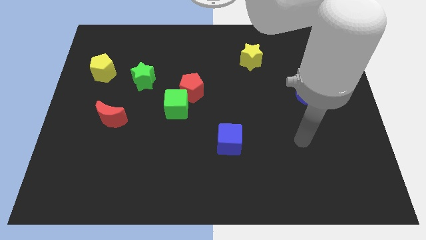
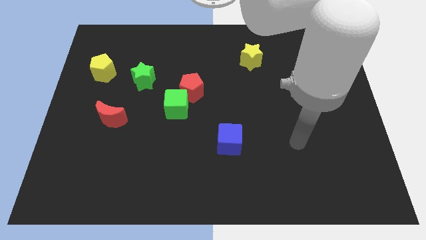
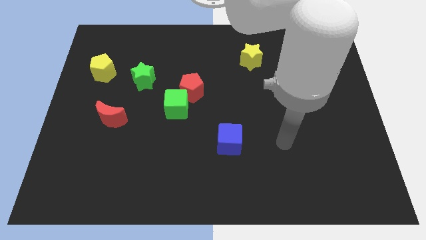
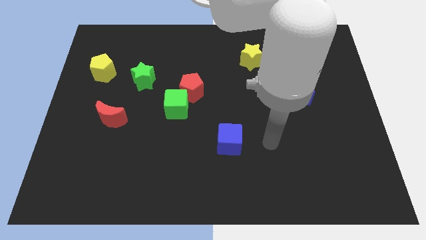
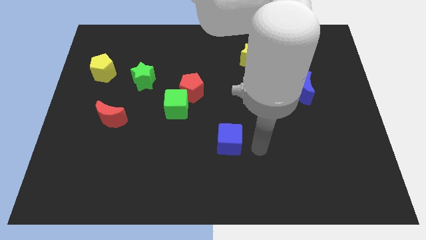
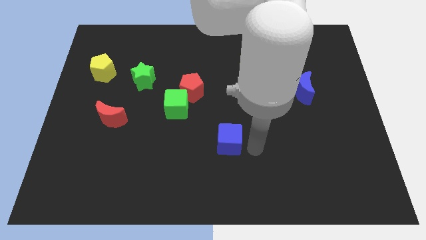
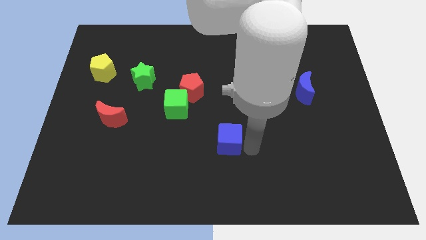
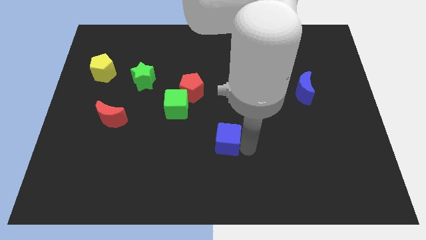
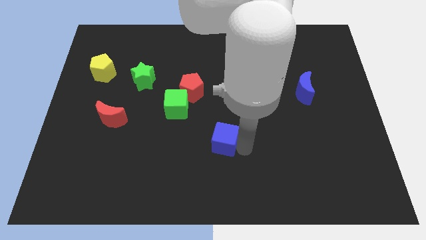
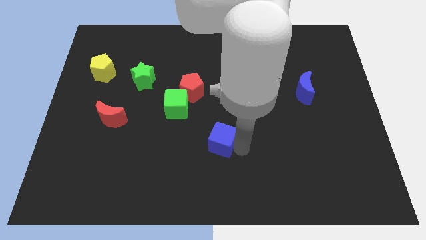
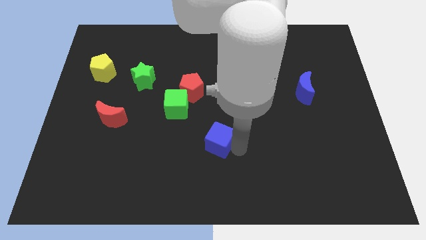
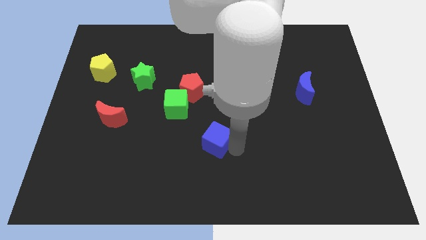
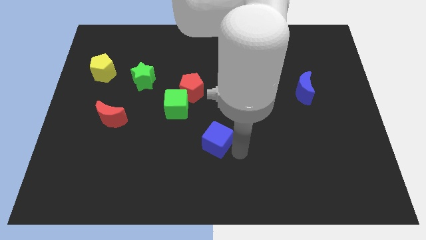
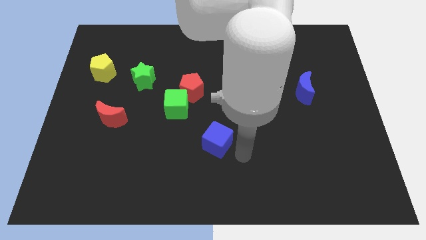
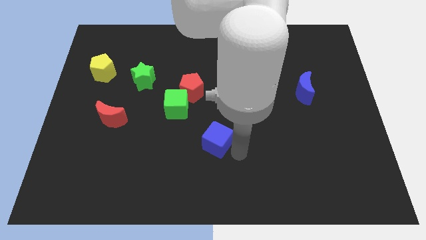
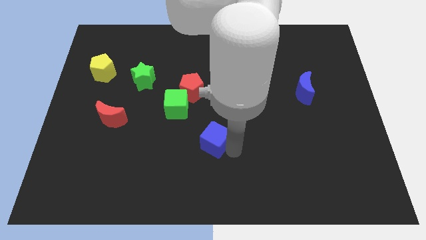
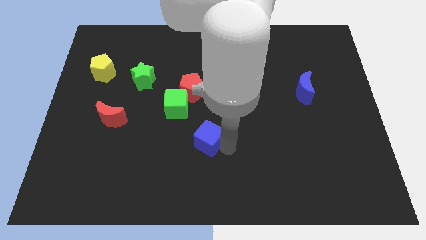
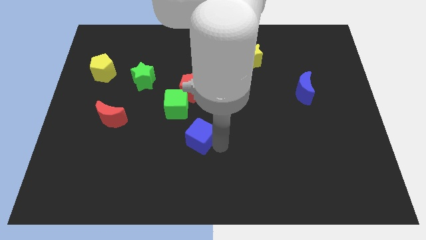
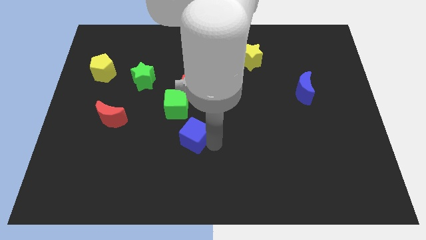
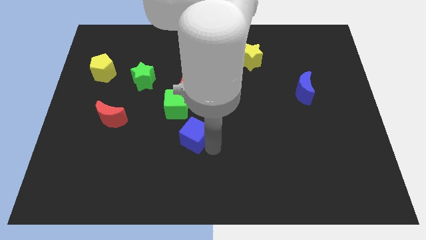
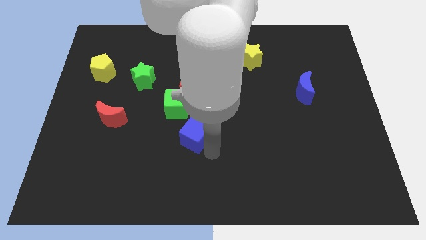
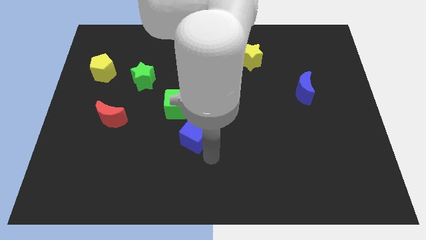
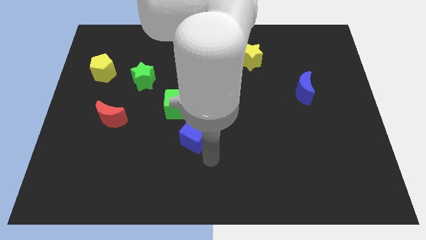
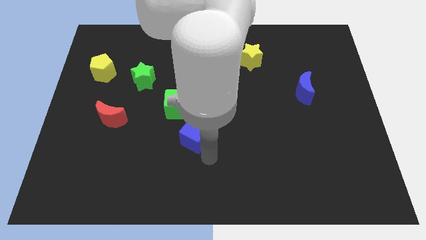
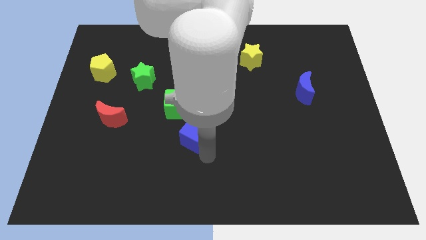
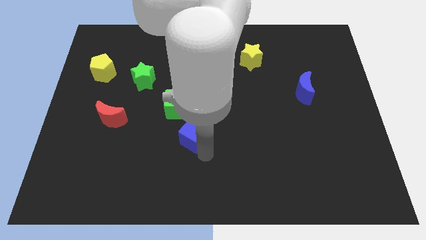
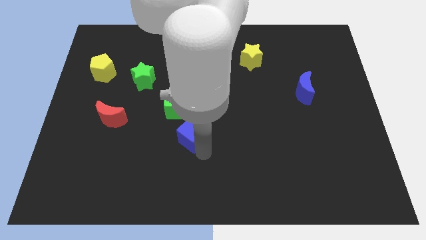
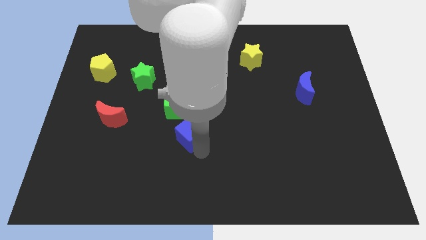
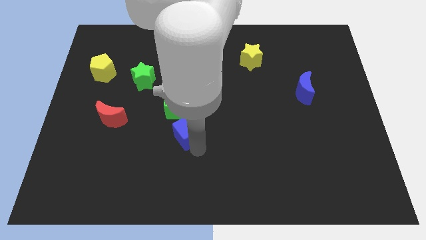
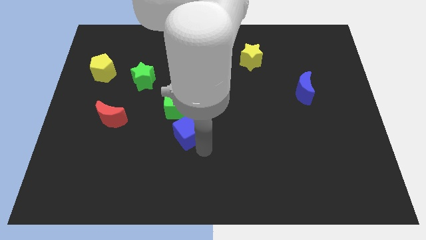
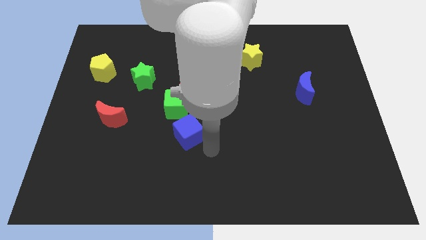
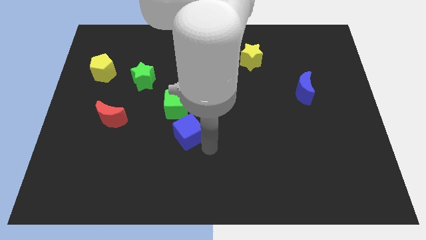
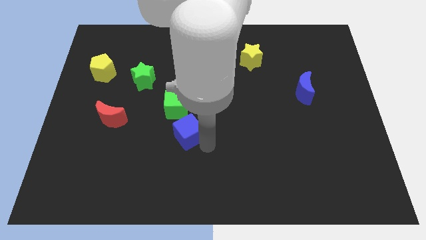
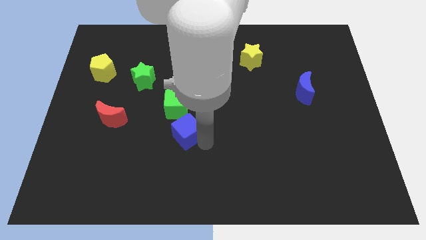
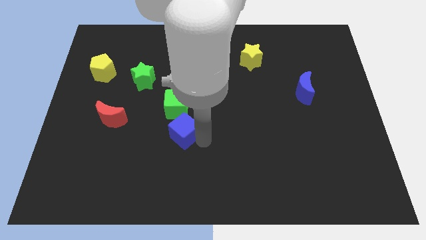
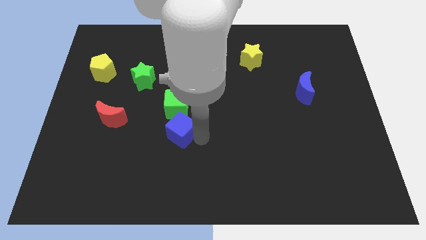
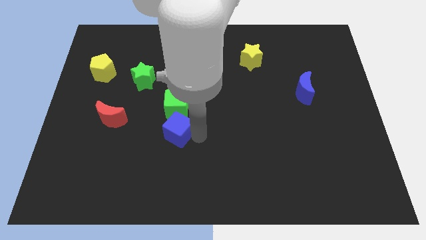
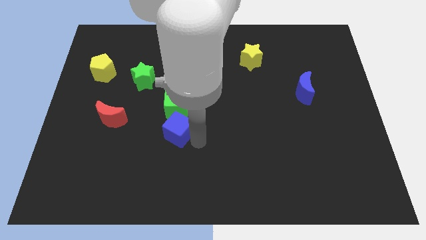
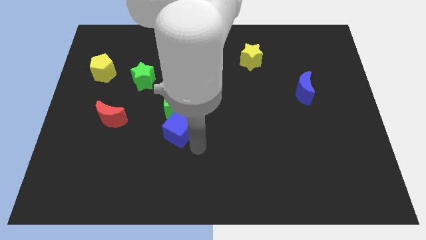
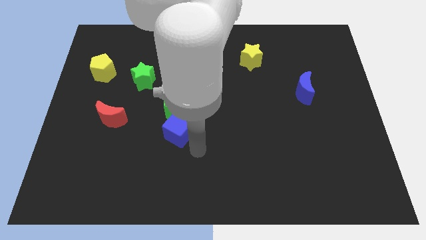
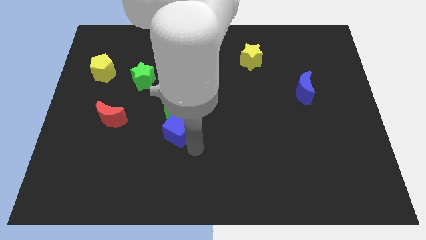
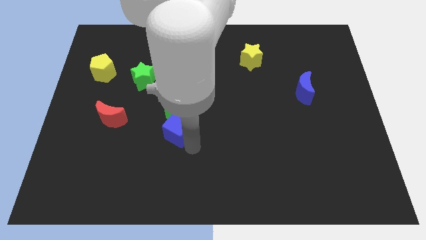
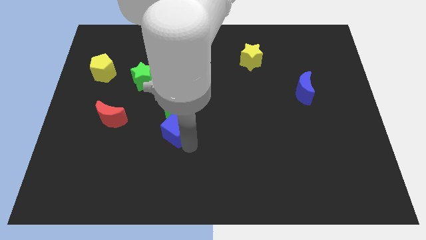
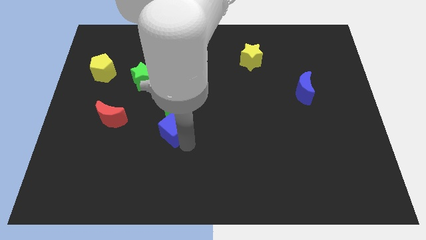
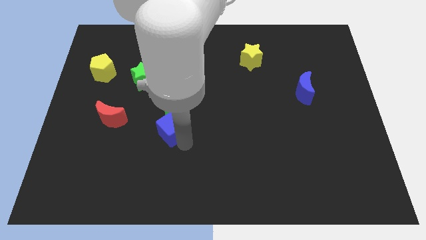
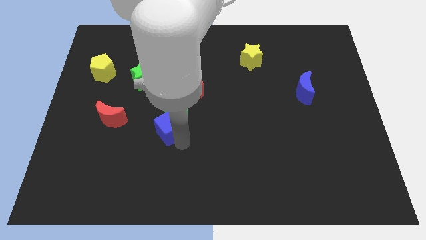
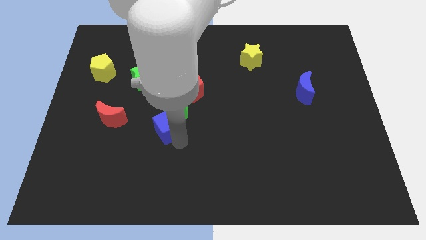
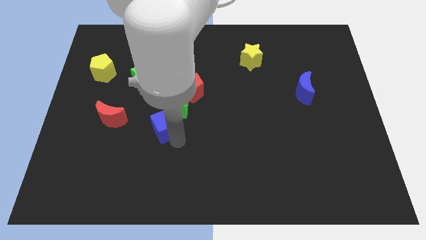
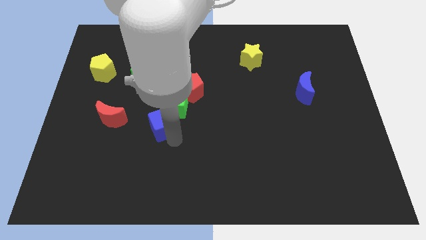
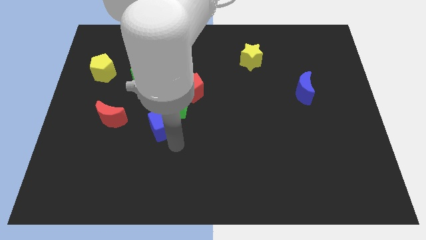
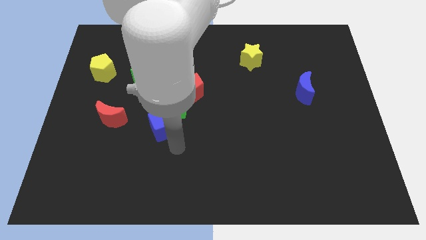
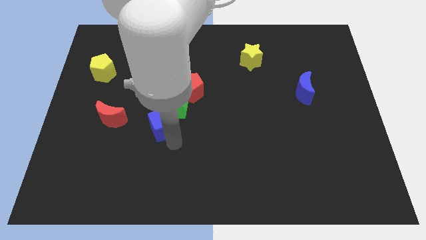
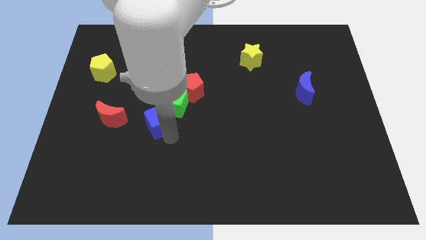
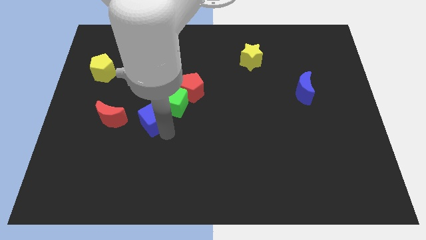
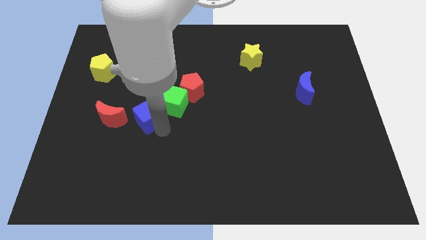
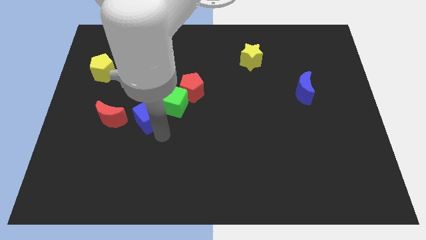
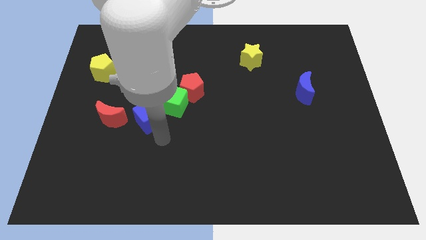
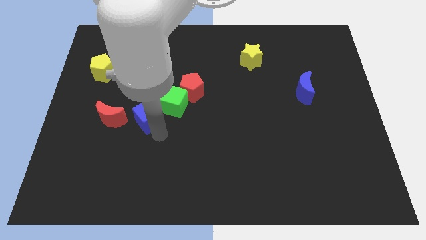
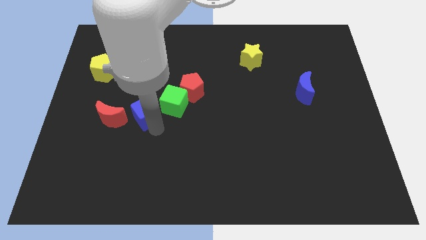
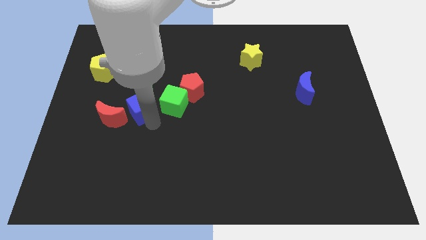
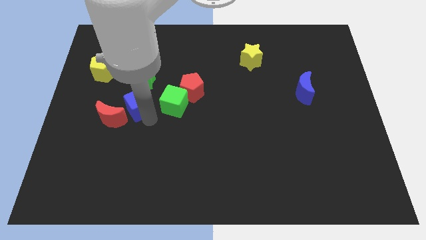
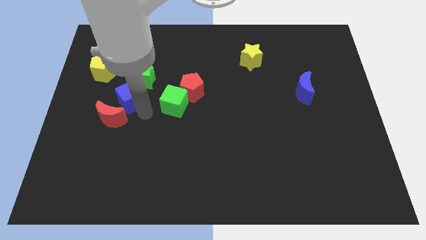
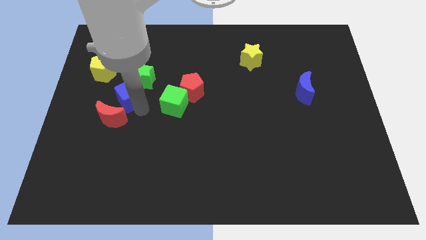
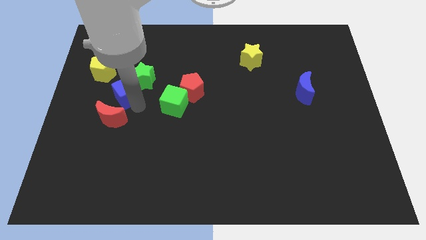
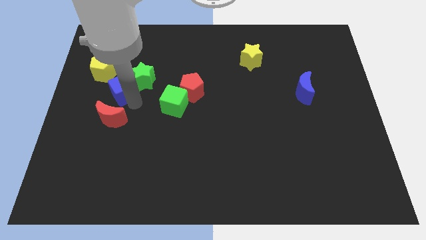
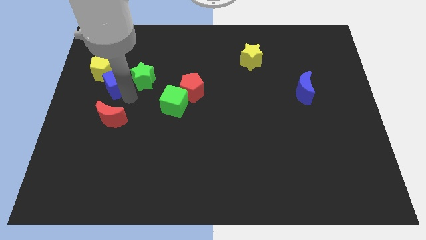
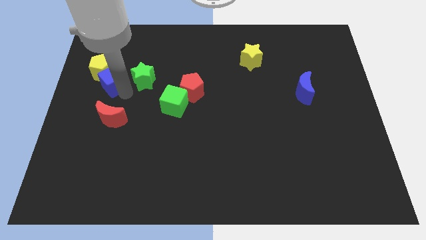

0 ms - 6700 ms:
slide the blue cube towards the yellow pentagon

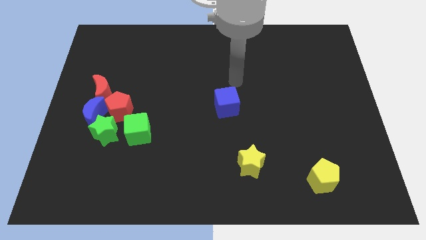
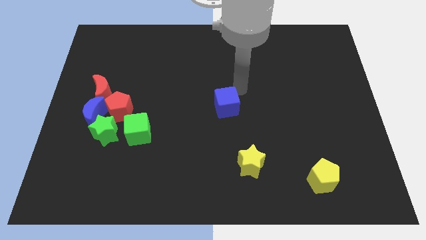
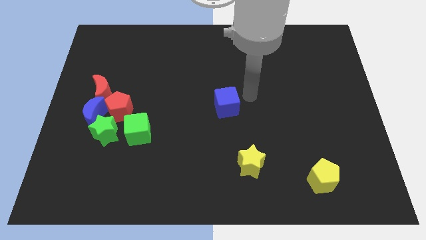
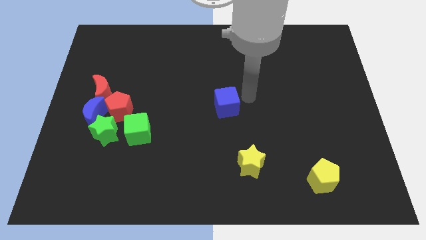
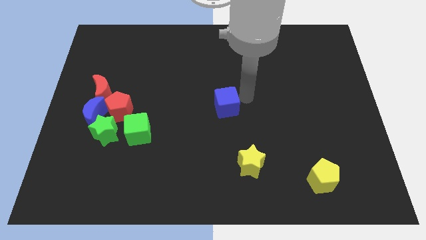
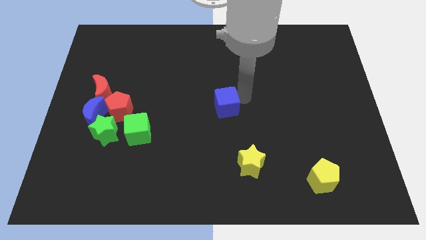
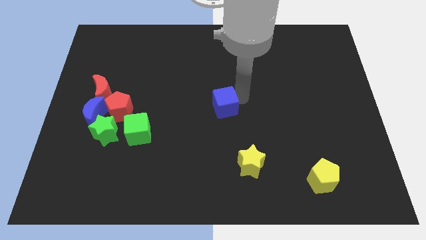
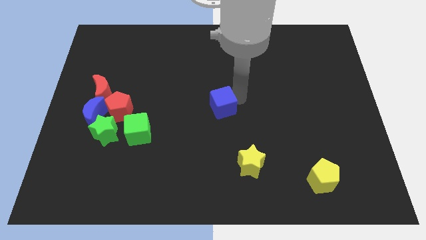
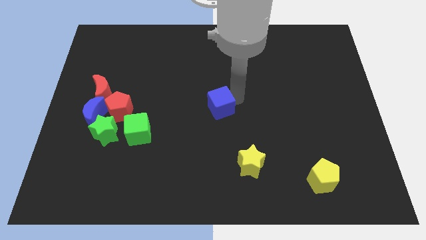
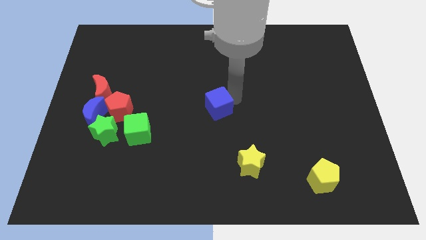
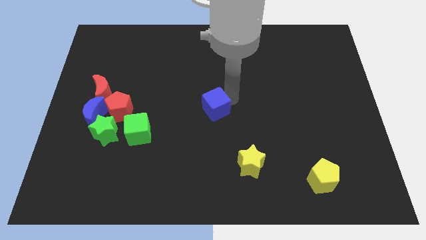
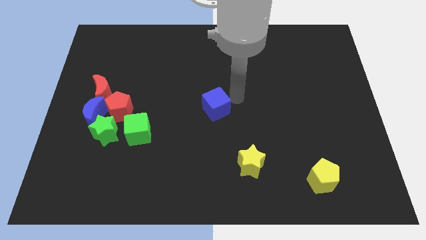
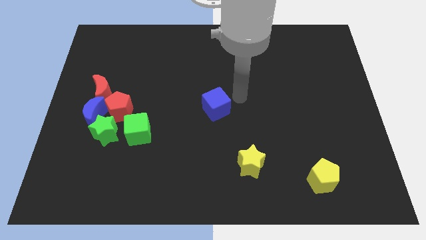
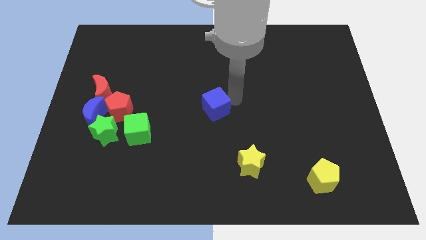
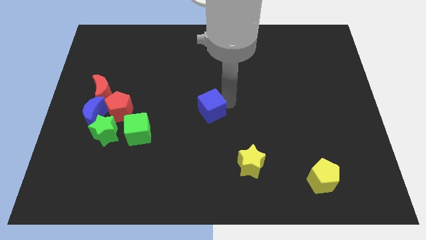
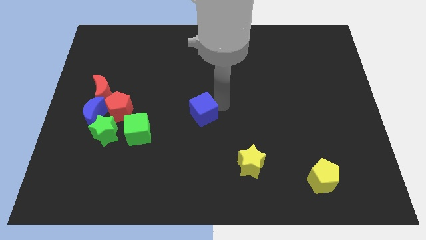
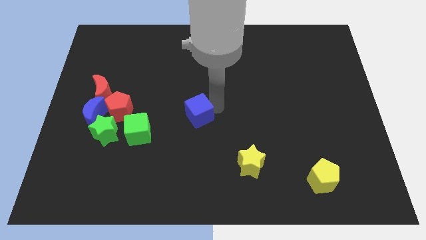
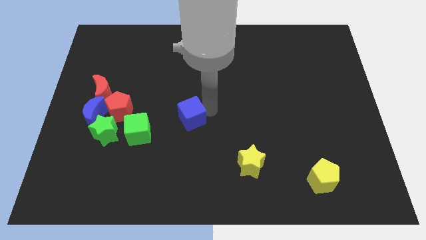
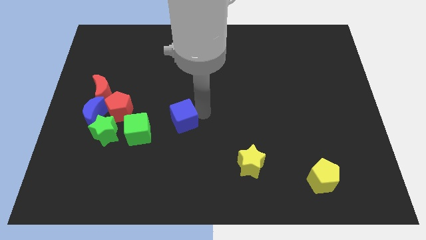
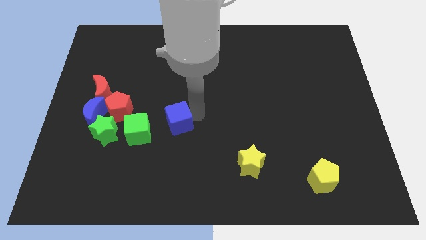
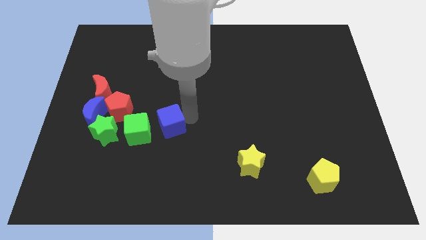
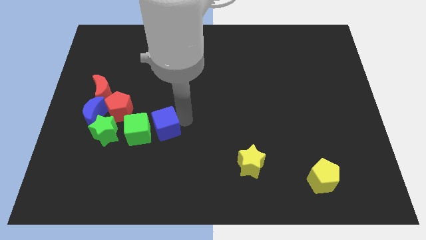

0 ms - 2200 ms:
slide the blue cube to the green cube
